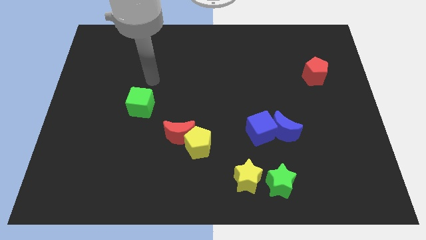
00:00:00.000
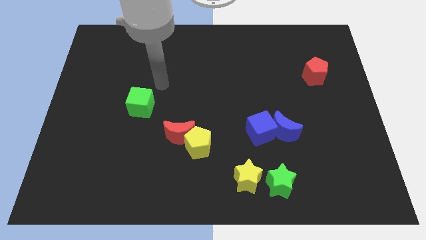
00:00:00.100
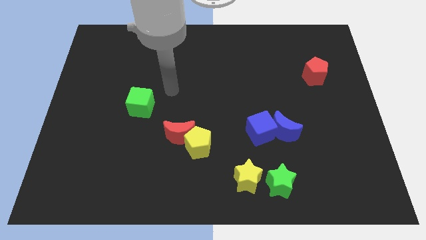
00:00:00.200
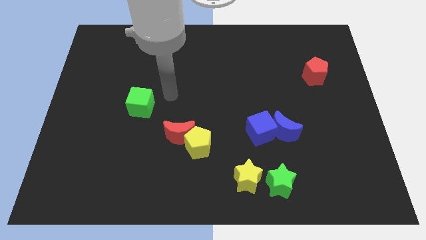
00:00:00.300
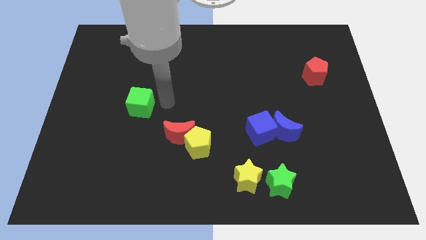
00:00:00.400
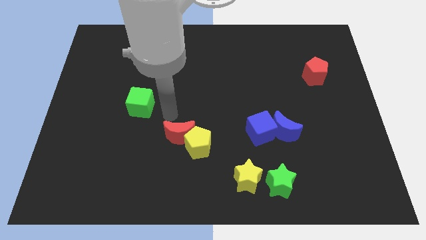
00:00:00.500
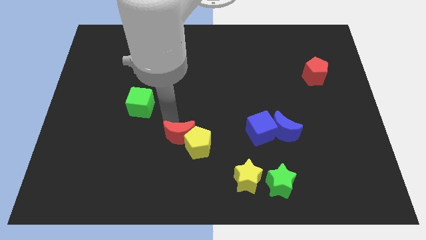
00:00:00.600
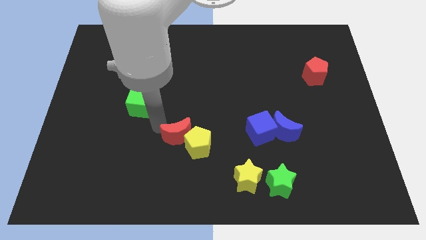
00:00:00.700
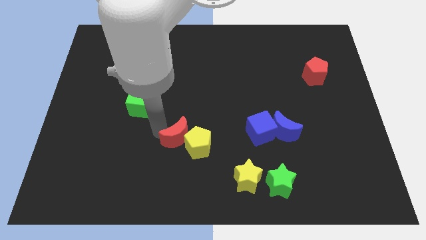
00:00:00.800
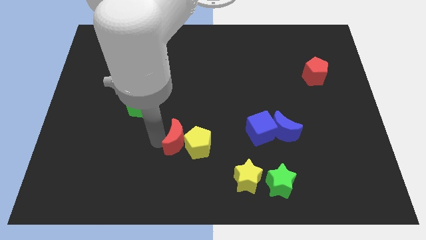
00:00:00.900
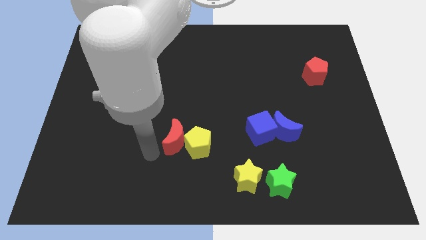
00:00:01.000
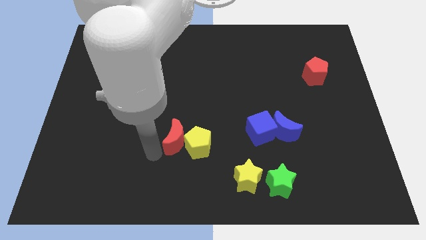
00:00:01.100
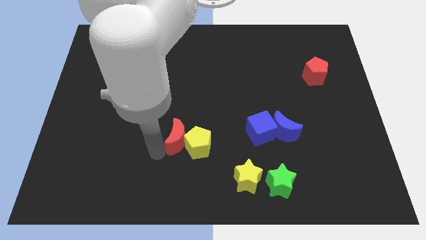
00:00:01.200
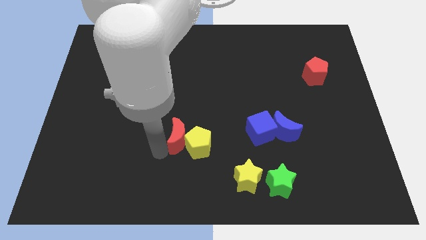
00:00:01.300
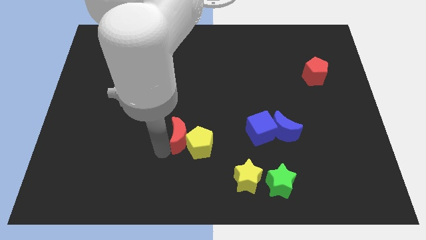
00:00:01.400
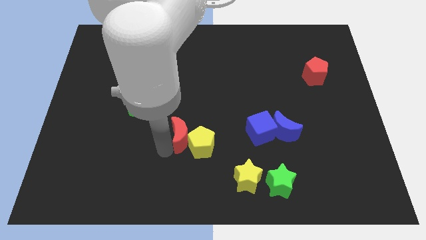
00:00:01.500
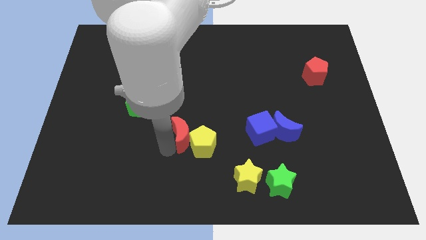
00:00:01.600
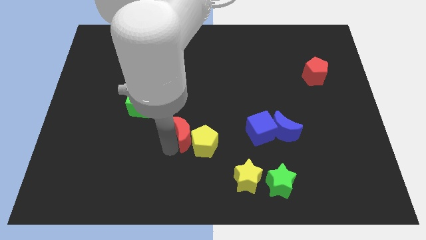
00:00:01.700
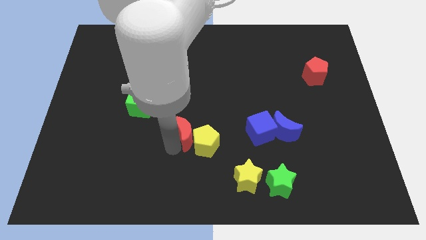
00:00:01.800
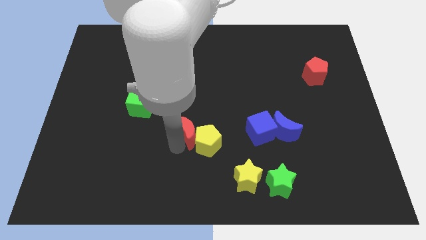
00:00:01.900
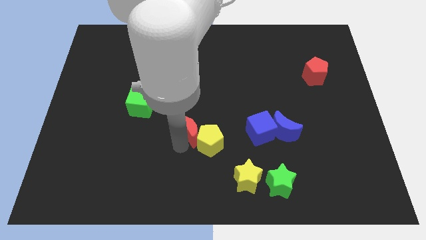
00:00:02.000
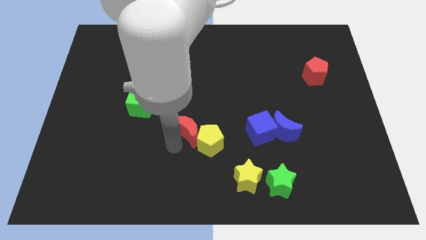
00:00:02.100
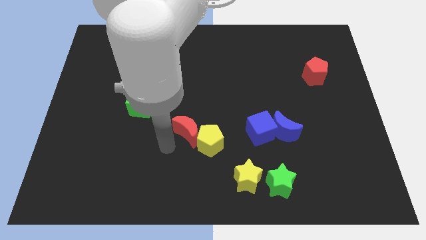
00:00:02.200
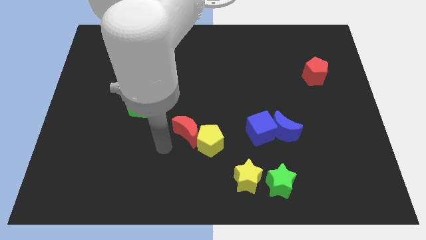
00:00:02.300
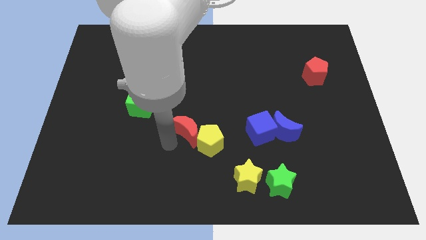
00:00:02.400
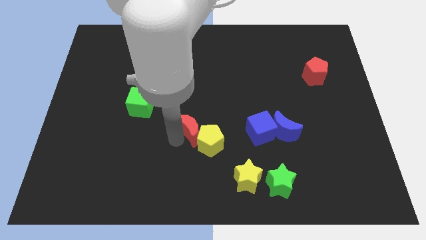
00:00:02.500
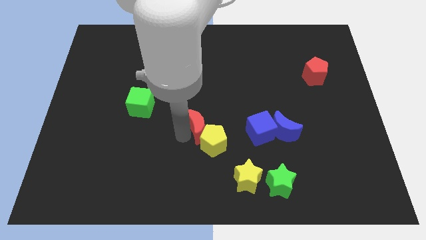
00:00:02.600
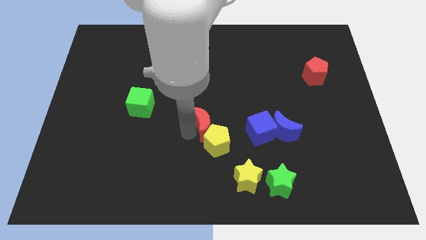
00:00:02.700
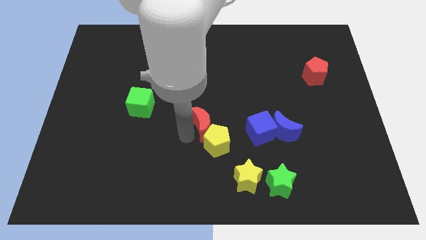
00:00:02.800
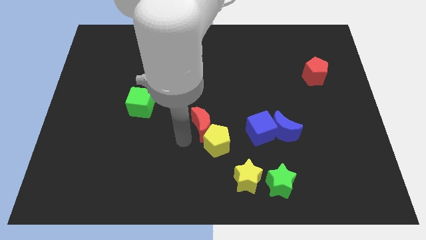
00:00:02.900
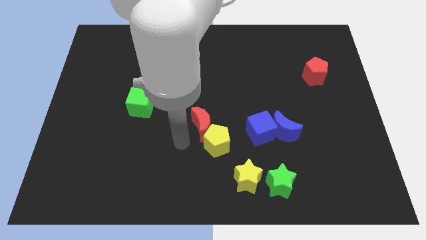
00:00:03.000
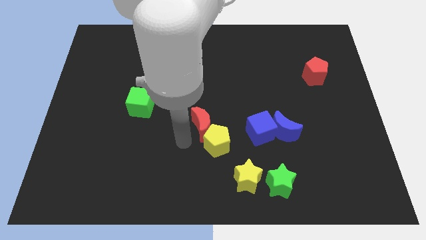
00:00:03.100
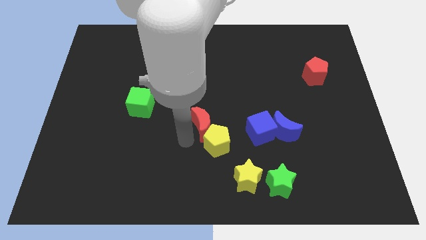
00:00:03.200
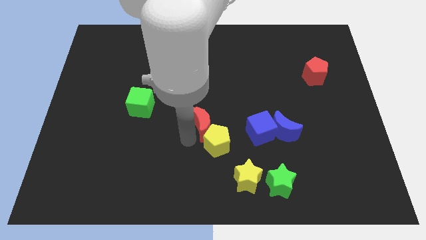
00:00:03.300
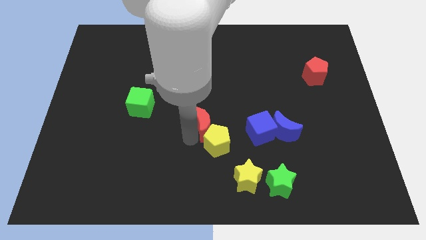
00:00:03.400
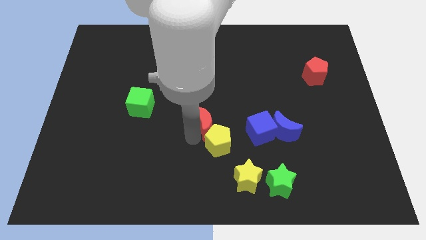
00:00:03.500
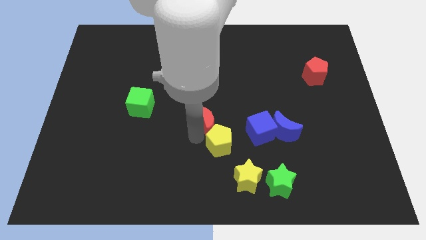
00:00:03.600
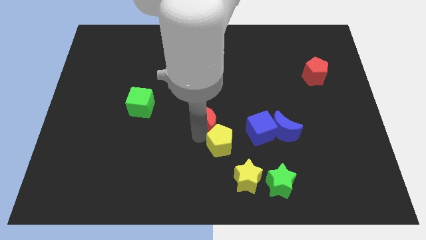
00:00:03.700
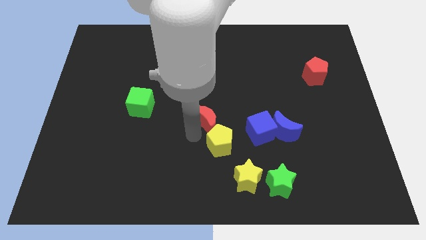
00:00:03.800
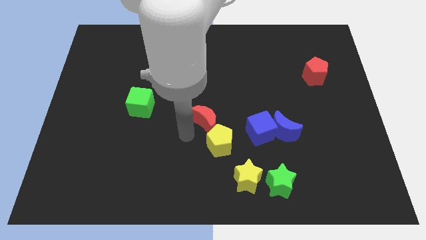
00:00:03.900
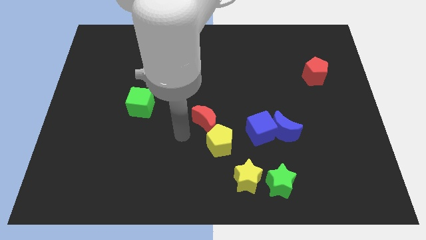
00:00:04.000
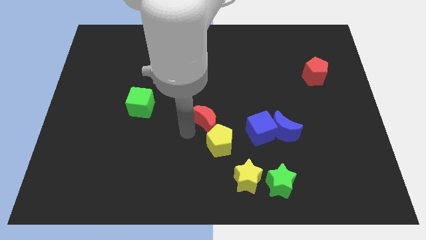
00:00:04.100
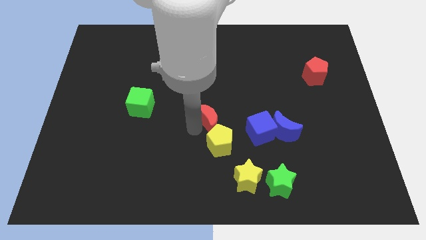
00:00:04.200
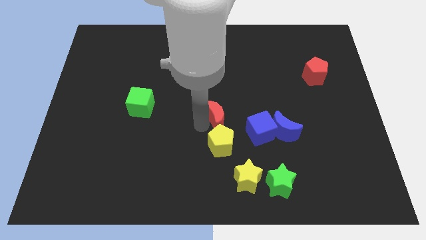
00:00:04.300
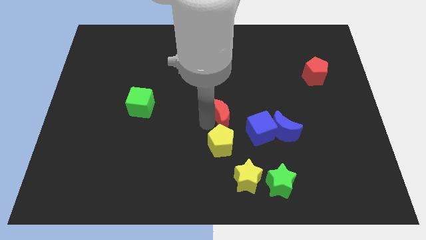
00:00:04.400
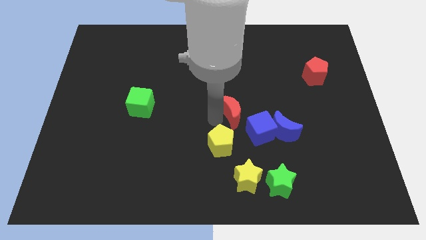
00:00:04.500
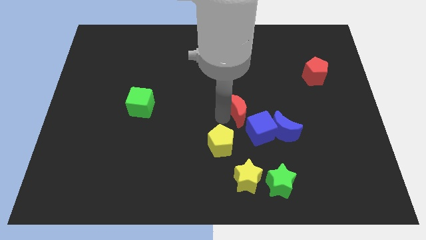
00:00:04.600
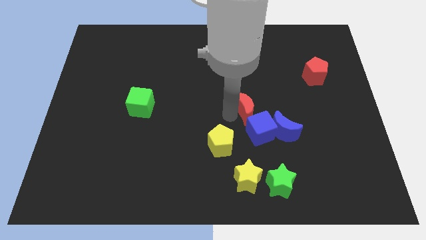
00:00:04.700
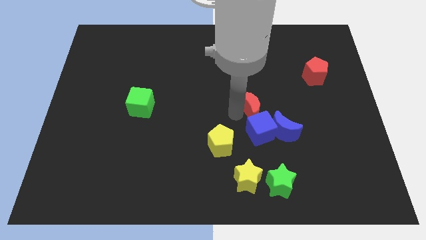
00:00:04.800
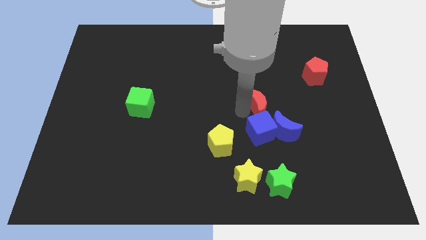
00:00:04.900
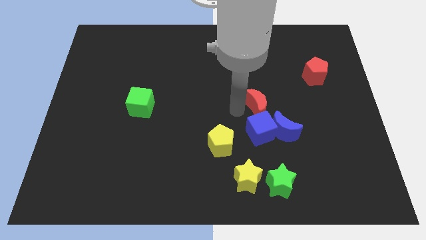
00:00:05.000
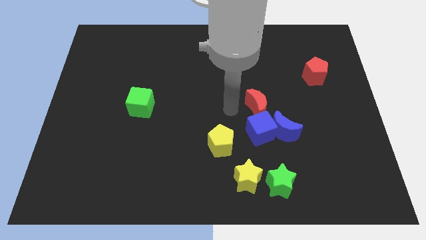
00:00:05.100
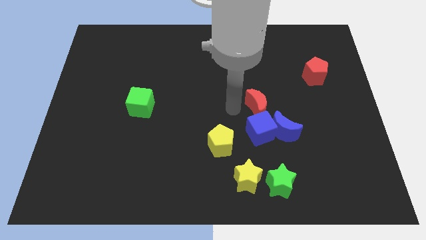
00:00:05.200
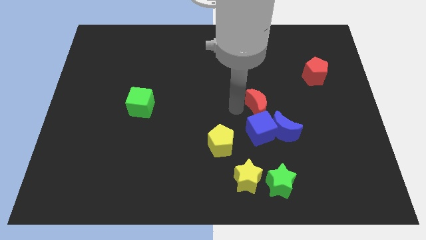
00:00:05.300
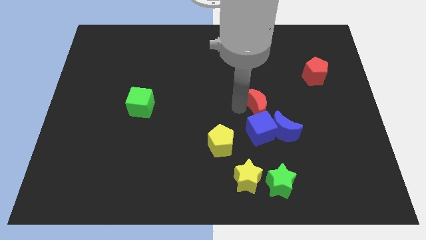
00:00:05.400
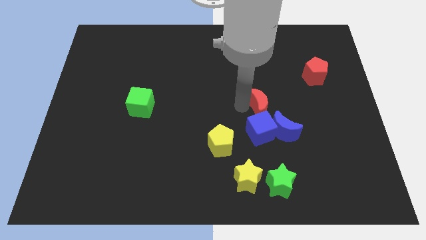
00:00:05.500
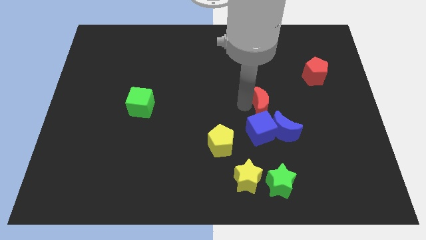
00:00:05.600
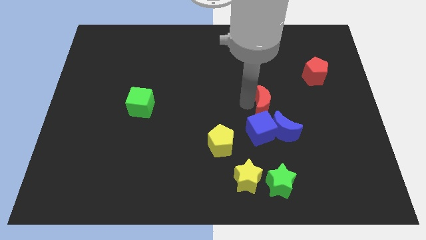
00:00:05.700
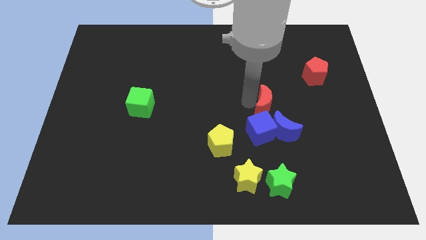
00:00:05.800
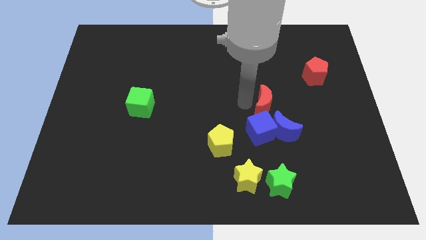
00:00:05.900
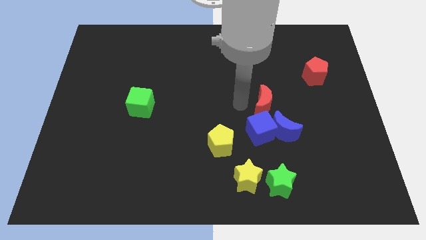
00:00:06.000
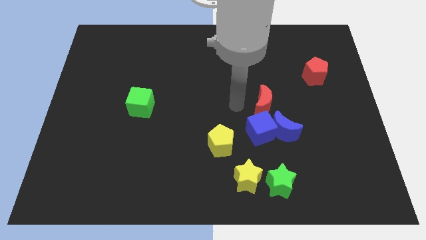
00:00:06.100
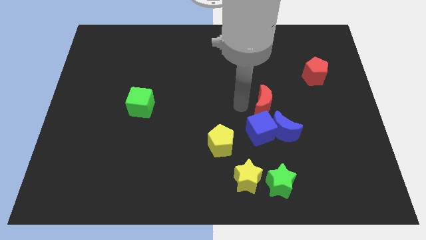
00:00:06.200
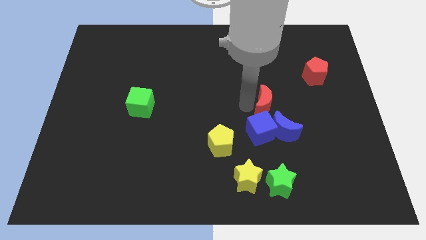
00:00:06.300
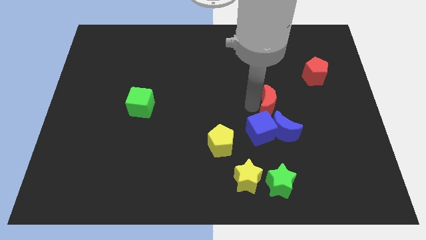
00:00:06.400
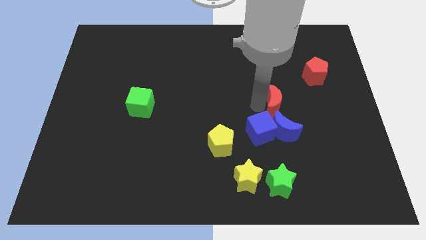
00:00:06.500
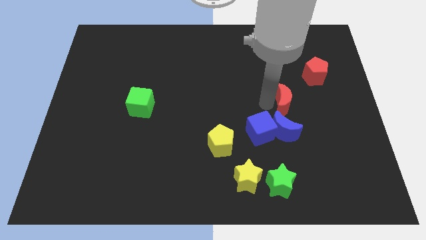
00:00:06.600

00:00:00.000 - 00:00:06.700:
slide the red moon right

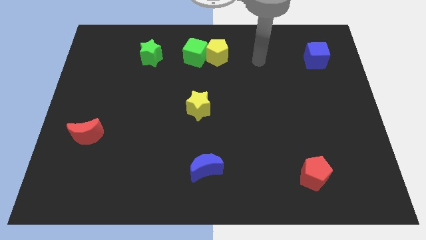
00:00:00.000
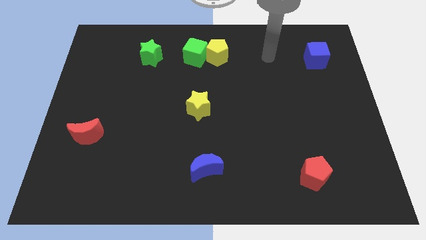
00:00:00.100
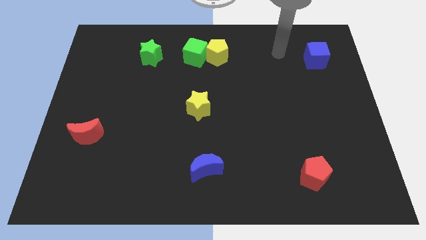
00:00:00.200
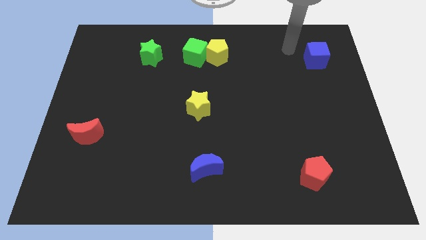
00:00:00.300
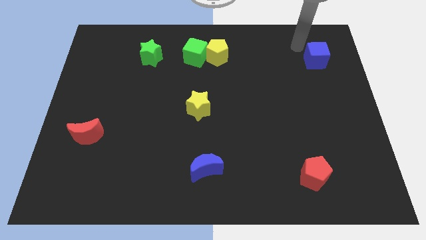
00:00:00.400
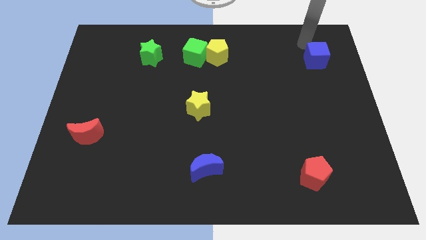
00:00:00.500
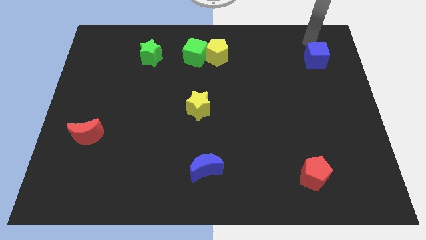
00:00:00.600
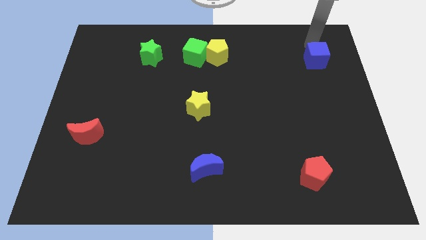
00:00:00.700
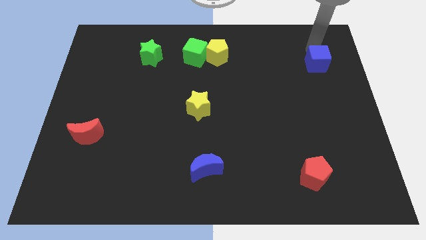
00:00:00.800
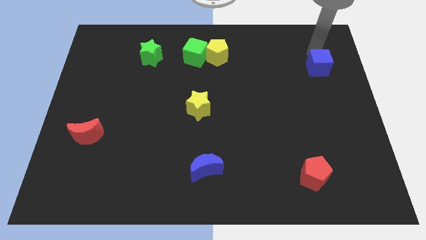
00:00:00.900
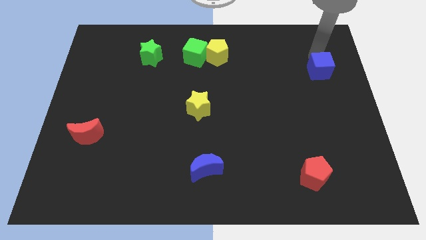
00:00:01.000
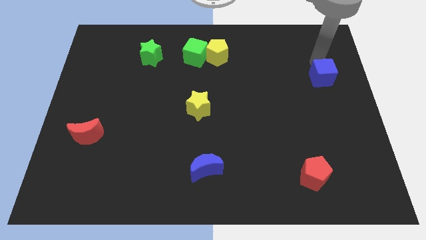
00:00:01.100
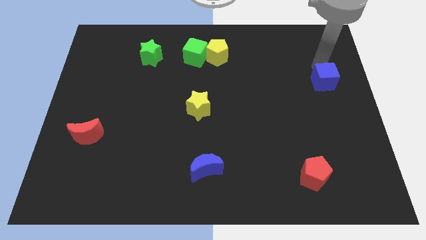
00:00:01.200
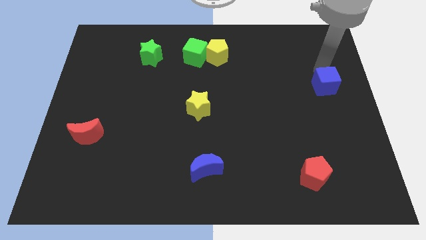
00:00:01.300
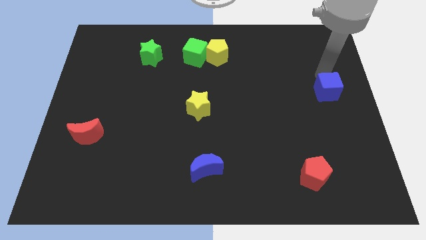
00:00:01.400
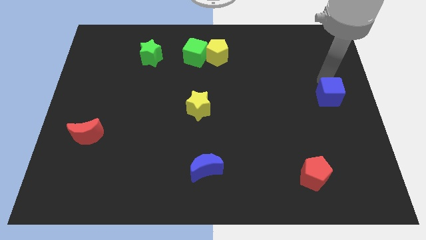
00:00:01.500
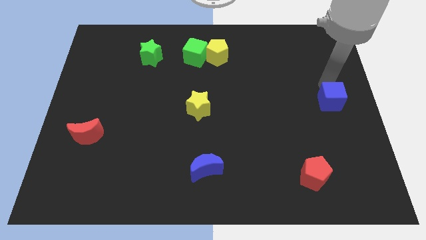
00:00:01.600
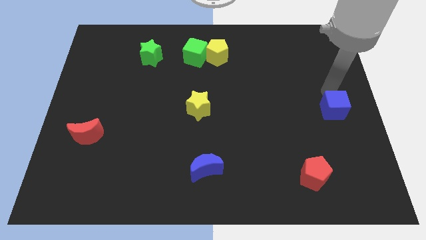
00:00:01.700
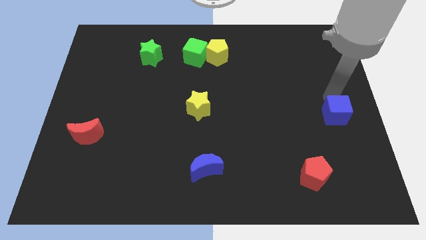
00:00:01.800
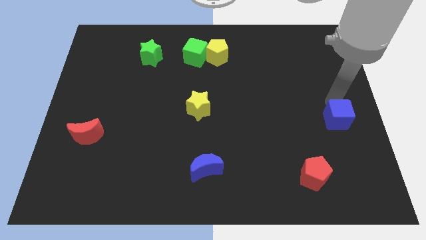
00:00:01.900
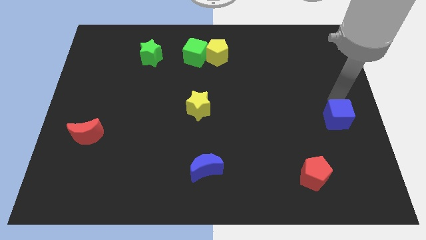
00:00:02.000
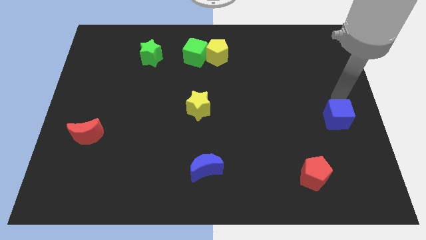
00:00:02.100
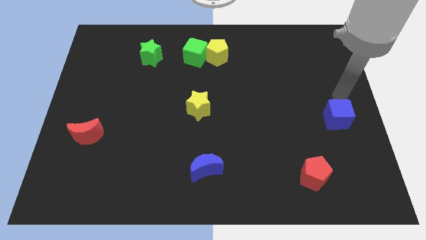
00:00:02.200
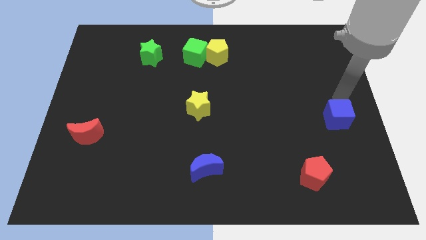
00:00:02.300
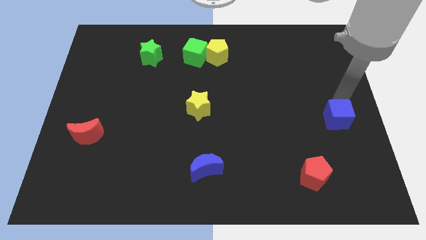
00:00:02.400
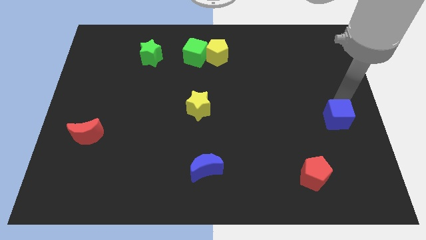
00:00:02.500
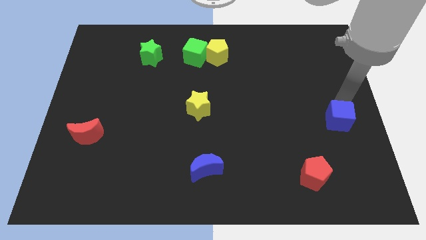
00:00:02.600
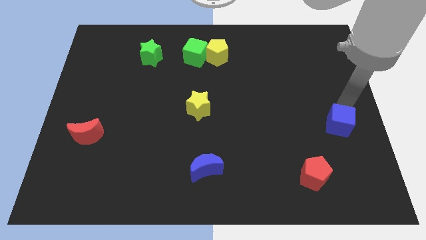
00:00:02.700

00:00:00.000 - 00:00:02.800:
slide the blue cube downwards
